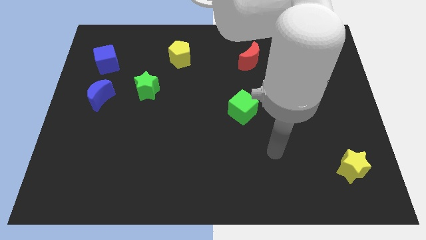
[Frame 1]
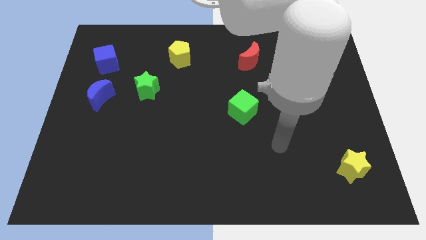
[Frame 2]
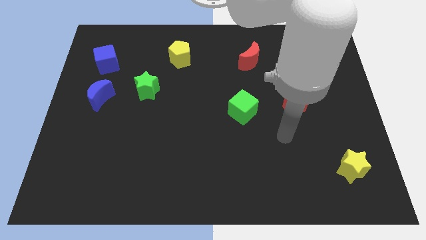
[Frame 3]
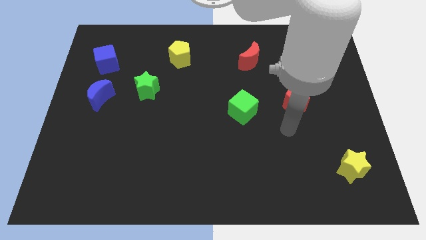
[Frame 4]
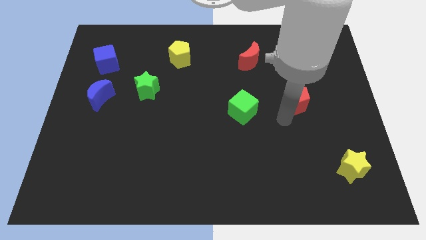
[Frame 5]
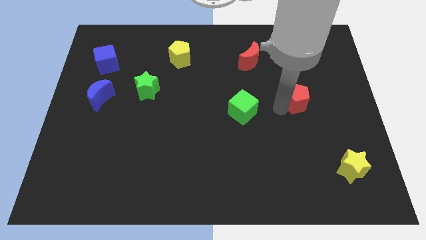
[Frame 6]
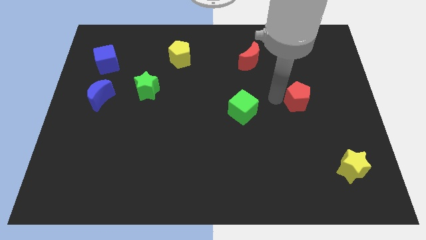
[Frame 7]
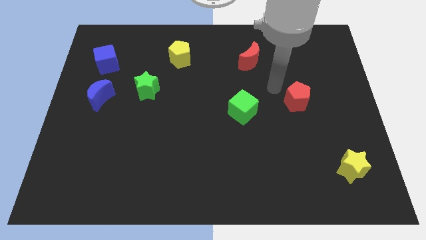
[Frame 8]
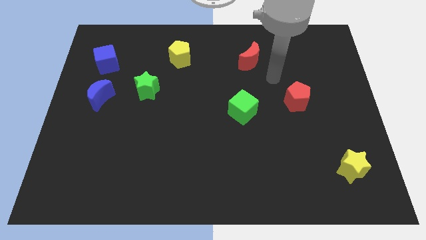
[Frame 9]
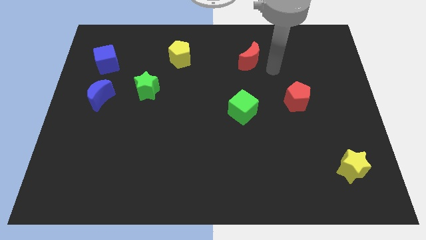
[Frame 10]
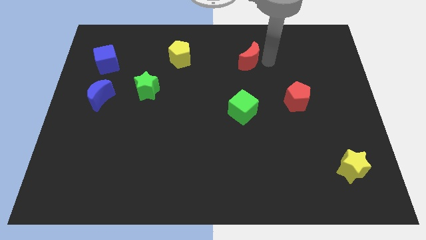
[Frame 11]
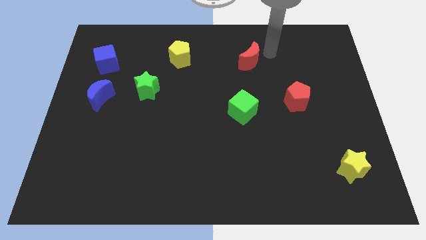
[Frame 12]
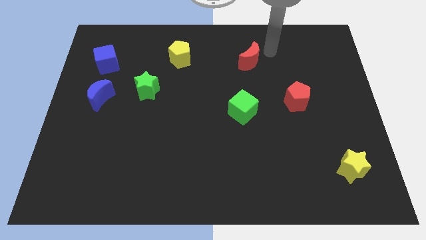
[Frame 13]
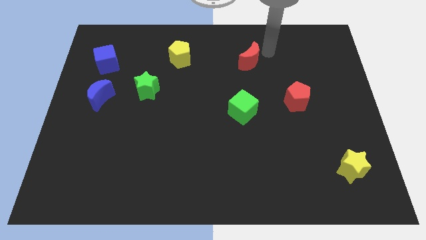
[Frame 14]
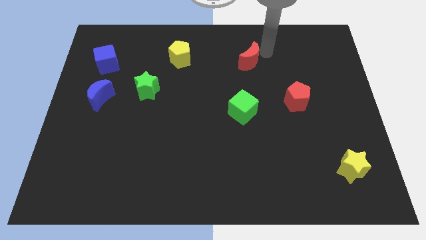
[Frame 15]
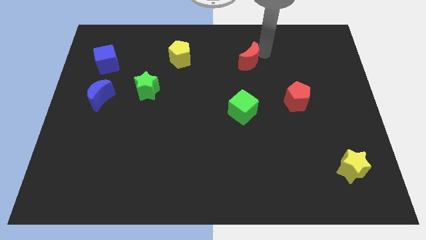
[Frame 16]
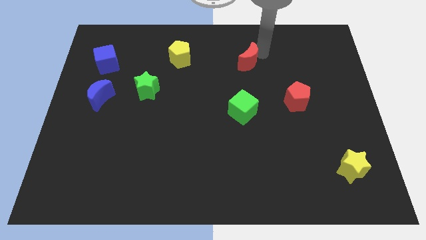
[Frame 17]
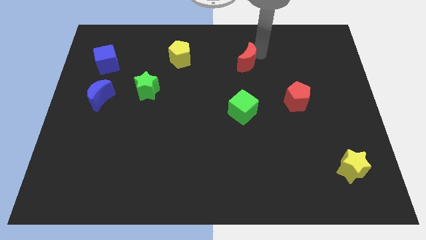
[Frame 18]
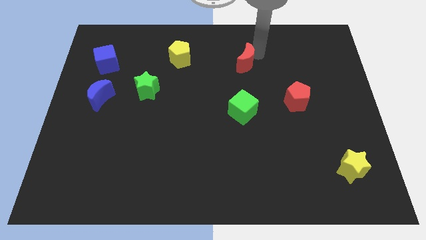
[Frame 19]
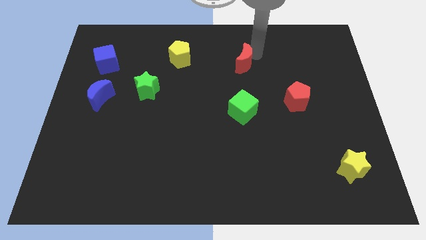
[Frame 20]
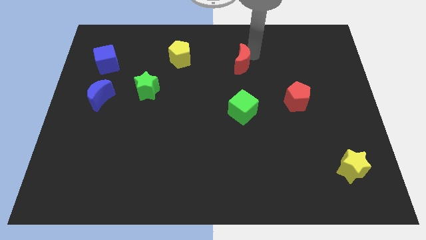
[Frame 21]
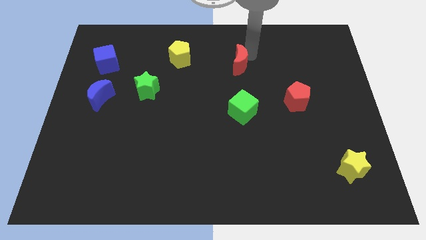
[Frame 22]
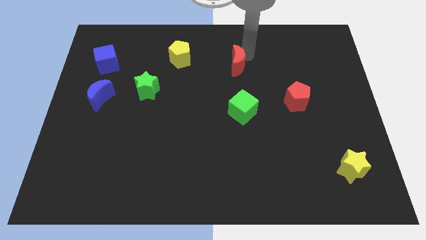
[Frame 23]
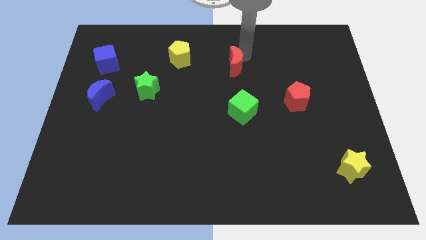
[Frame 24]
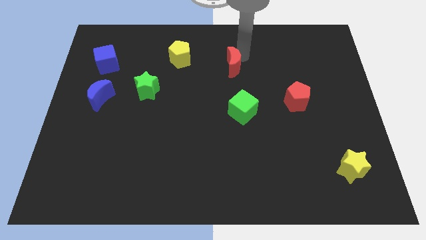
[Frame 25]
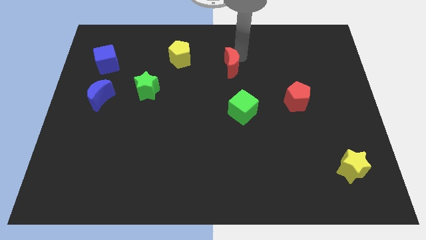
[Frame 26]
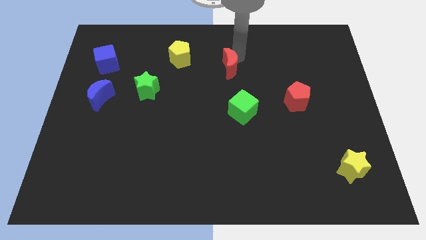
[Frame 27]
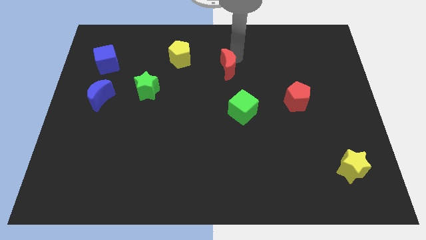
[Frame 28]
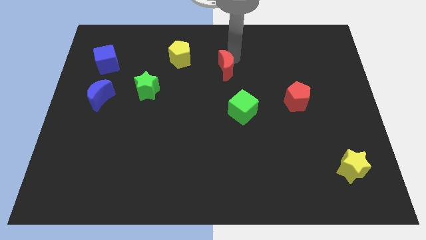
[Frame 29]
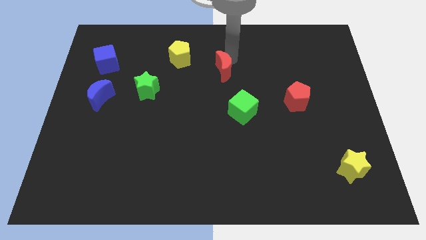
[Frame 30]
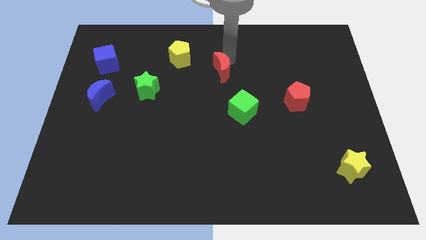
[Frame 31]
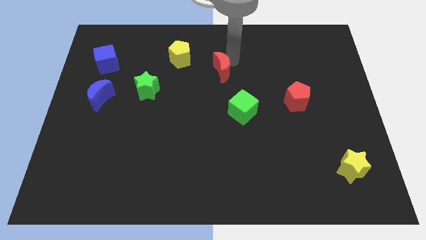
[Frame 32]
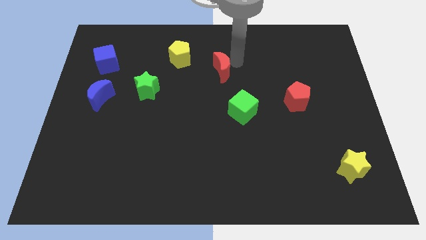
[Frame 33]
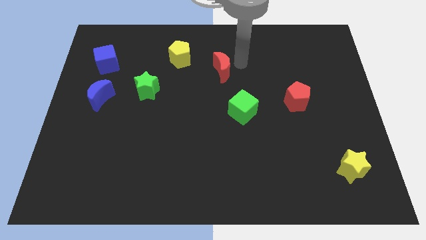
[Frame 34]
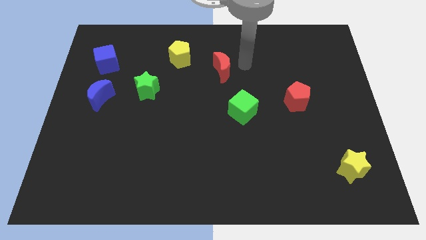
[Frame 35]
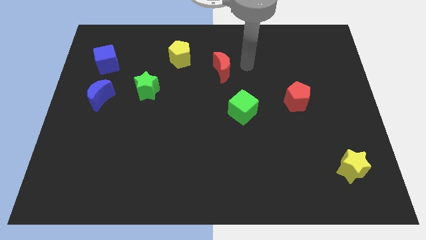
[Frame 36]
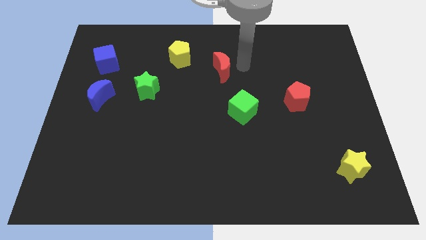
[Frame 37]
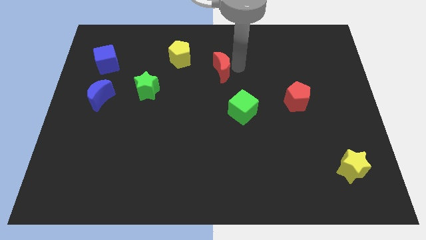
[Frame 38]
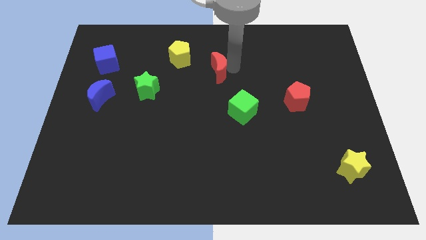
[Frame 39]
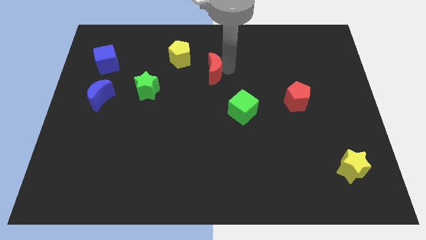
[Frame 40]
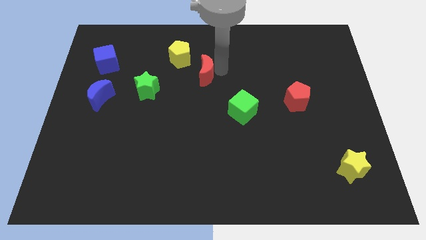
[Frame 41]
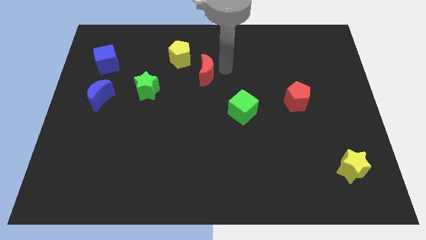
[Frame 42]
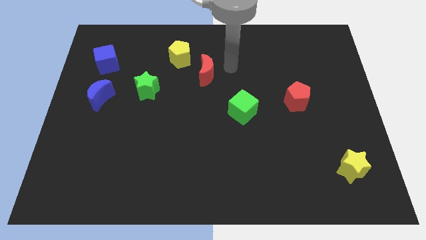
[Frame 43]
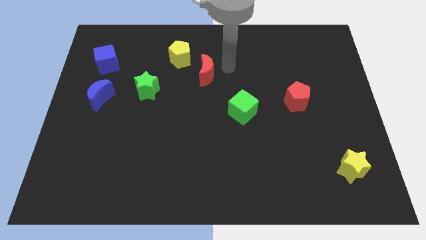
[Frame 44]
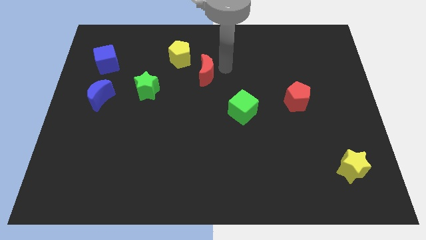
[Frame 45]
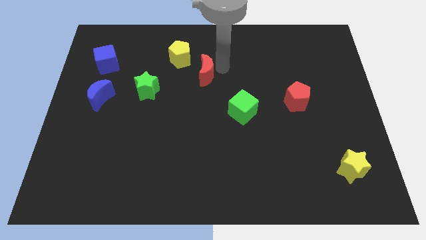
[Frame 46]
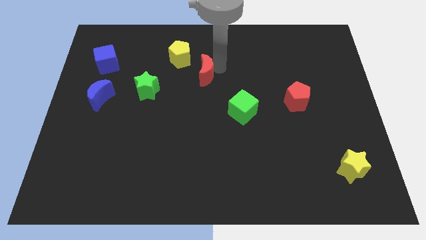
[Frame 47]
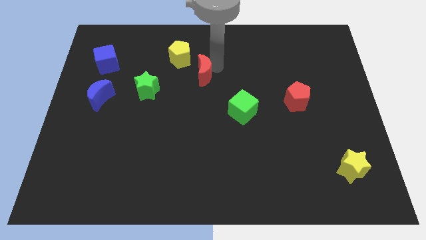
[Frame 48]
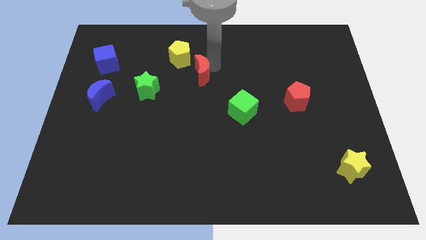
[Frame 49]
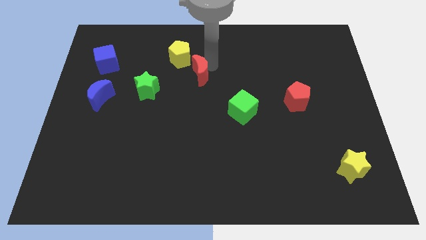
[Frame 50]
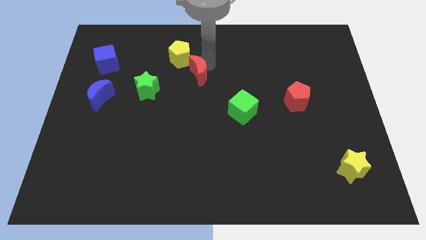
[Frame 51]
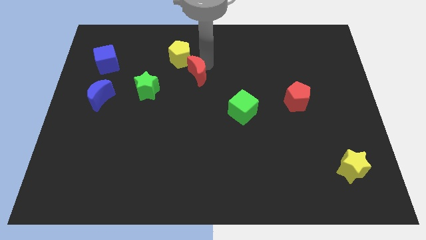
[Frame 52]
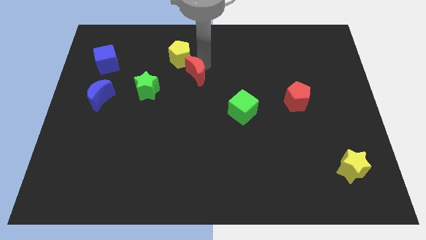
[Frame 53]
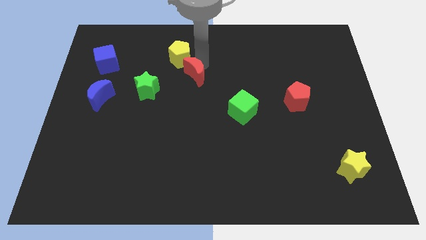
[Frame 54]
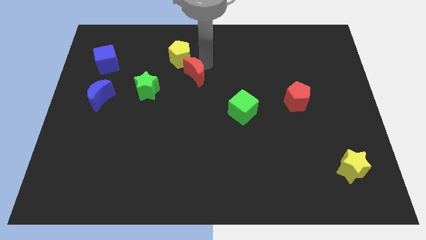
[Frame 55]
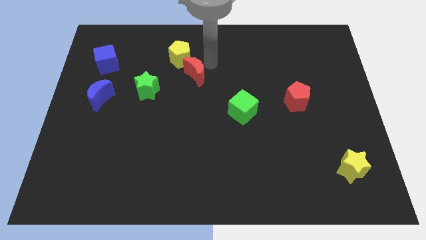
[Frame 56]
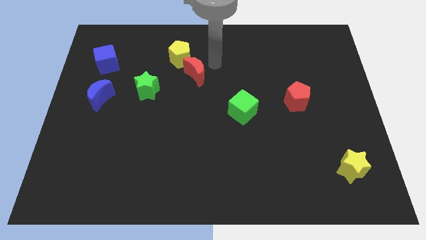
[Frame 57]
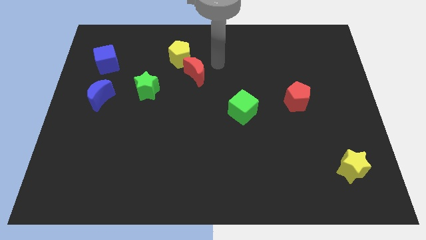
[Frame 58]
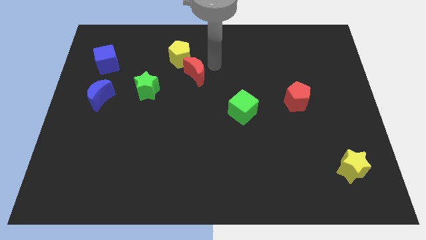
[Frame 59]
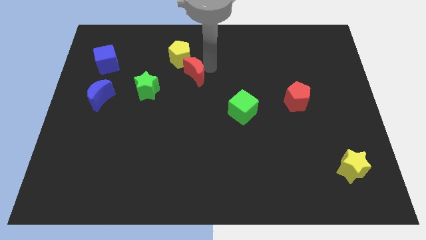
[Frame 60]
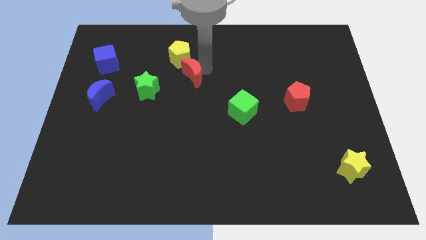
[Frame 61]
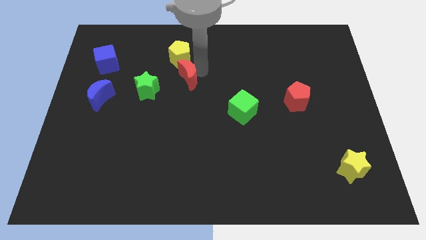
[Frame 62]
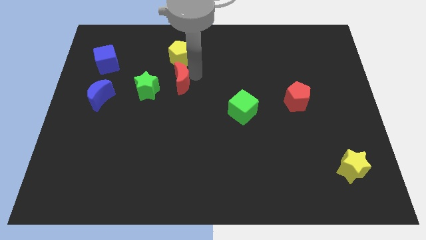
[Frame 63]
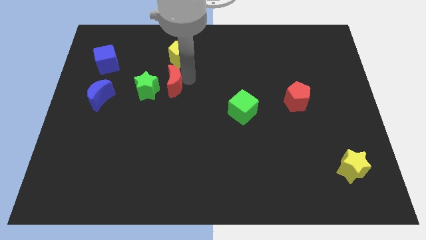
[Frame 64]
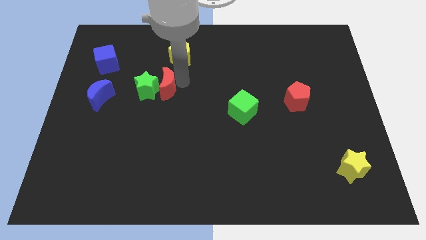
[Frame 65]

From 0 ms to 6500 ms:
put the red moon to the green star

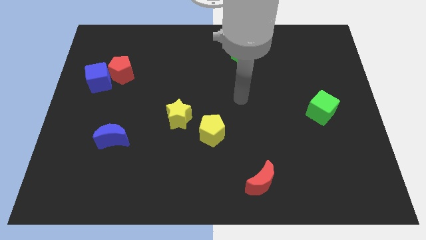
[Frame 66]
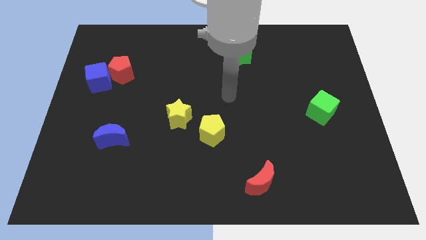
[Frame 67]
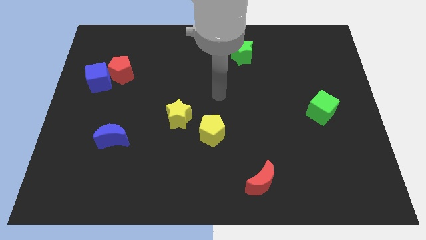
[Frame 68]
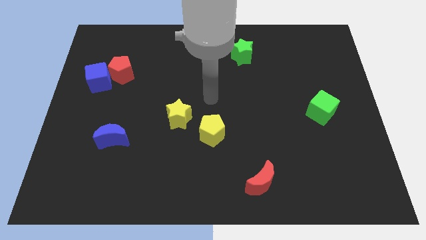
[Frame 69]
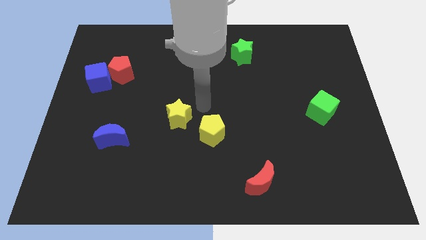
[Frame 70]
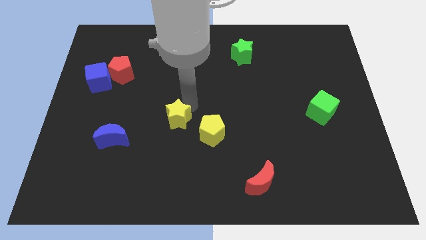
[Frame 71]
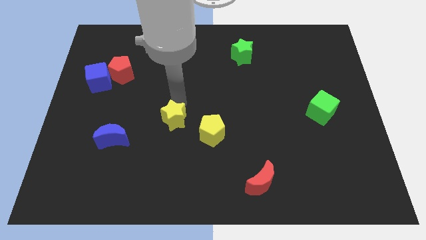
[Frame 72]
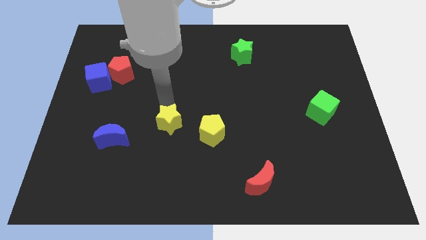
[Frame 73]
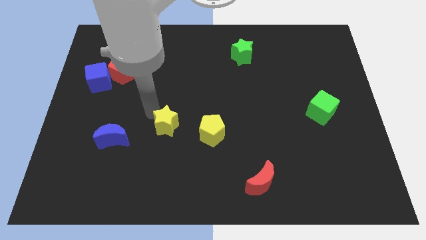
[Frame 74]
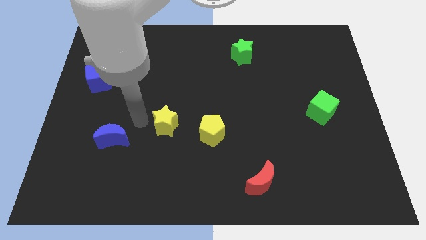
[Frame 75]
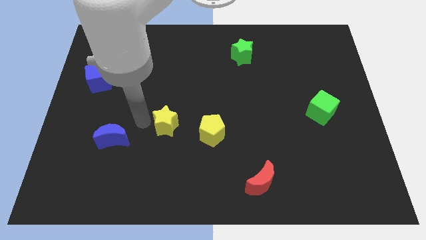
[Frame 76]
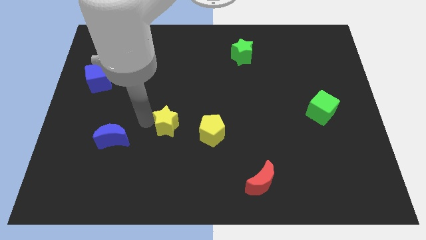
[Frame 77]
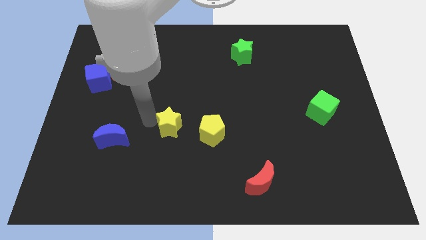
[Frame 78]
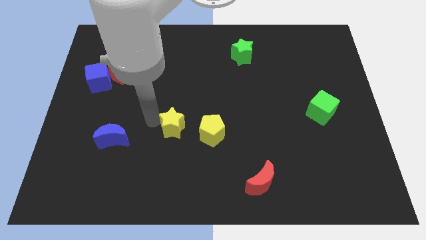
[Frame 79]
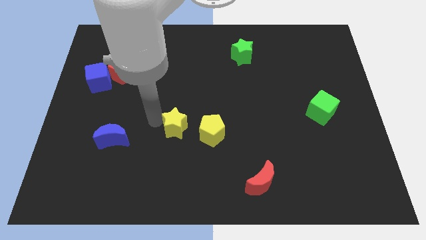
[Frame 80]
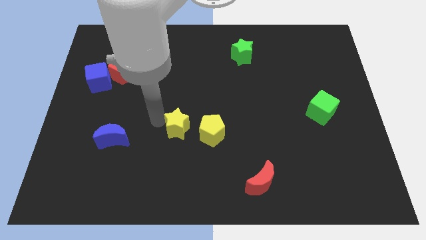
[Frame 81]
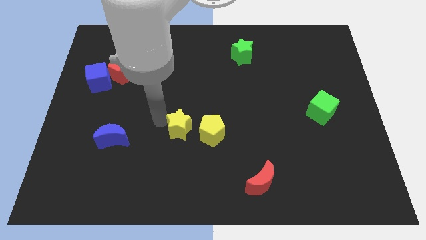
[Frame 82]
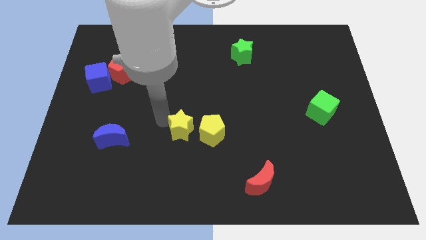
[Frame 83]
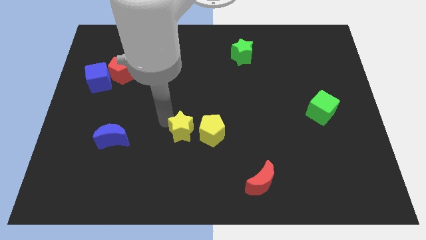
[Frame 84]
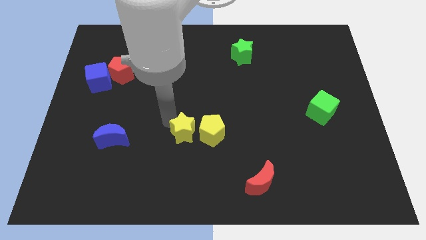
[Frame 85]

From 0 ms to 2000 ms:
slide the yellow star next to the yellow pentagon
